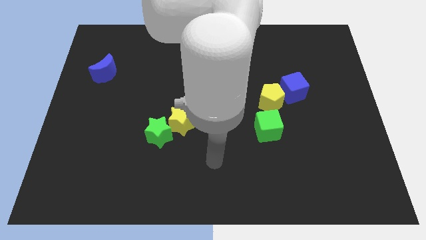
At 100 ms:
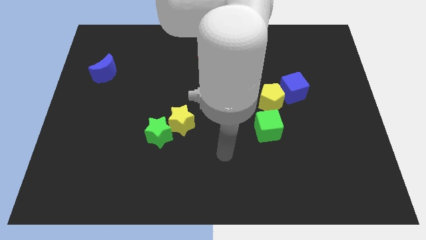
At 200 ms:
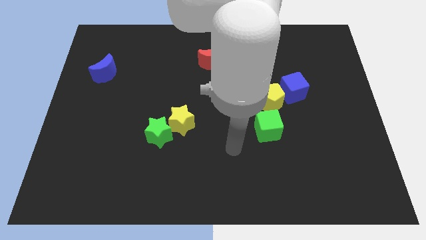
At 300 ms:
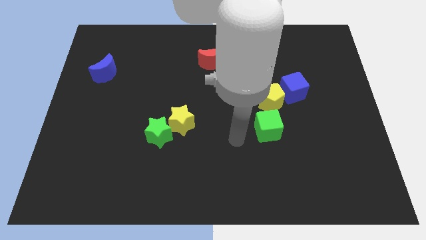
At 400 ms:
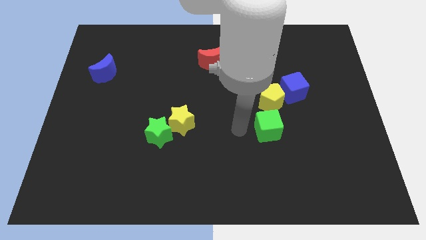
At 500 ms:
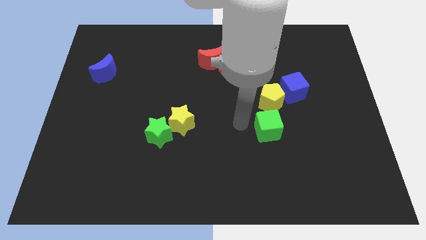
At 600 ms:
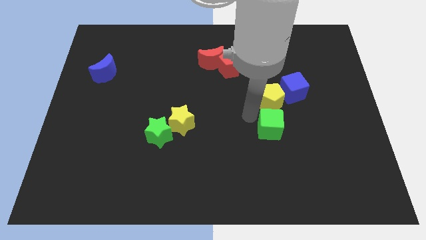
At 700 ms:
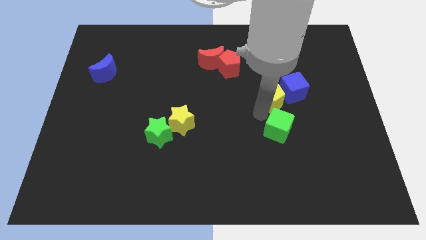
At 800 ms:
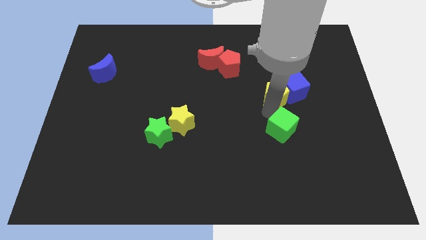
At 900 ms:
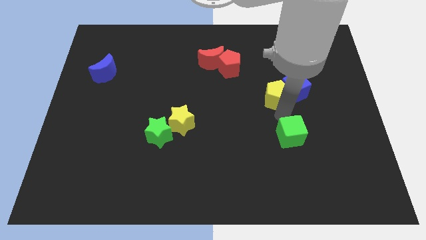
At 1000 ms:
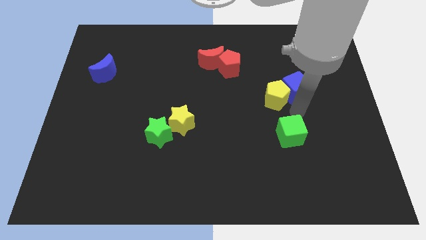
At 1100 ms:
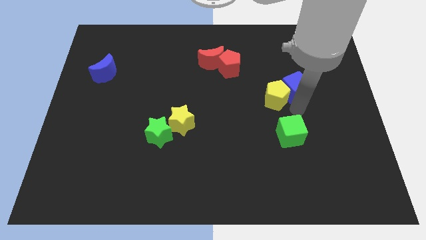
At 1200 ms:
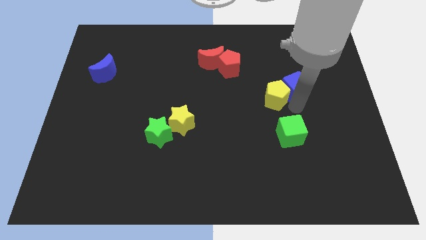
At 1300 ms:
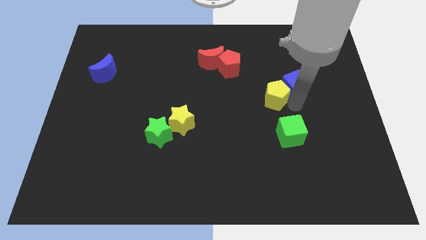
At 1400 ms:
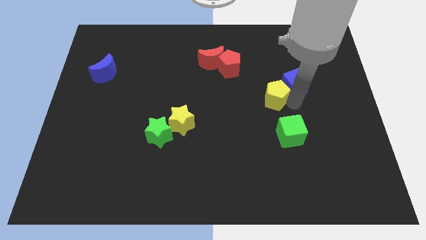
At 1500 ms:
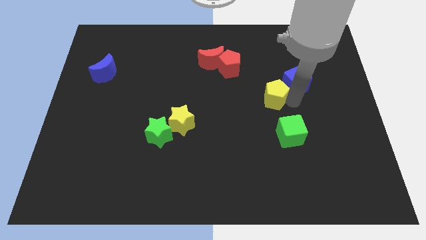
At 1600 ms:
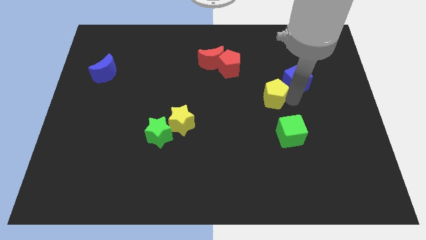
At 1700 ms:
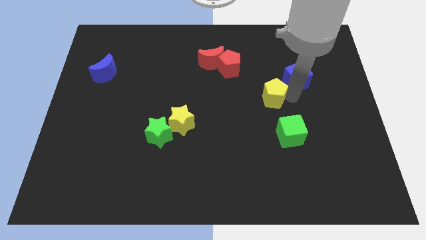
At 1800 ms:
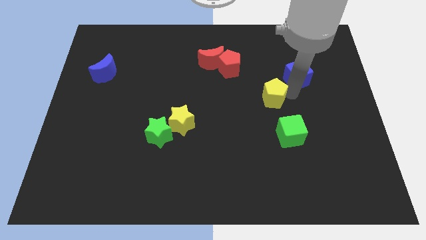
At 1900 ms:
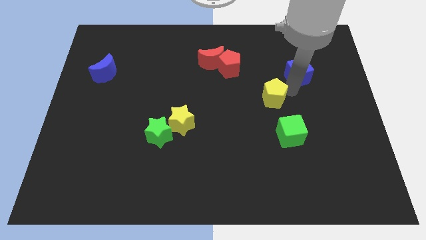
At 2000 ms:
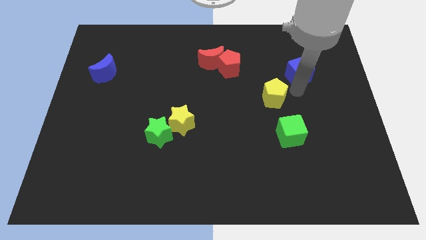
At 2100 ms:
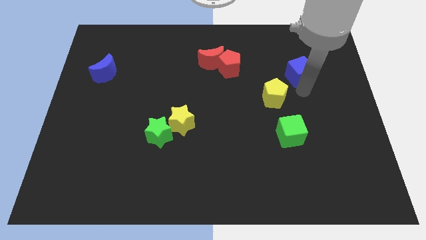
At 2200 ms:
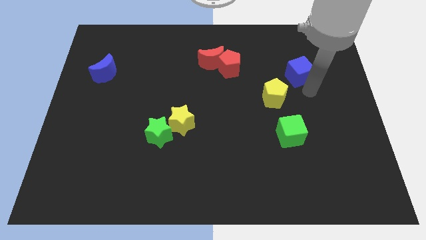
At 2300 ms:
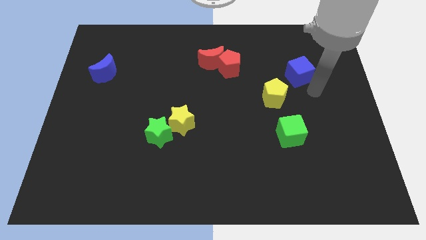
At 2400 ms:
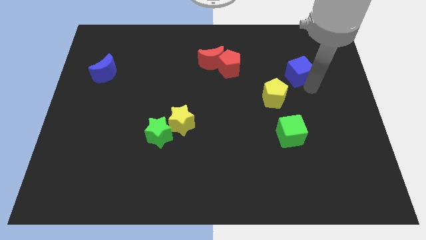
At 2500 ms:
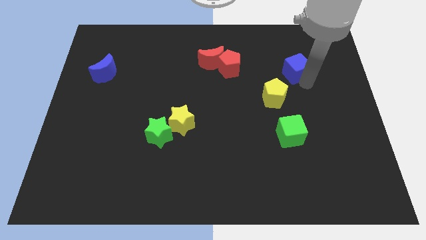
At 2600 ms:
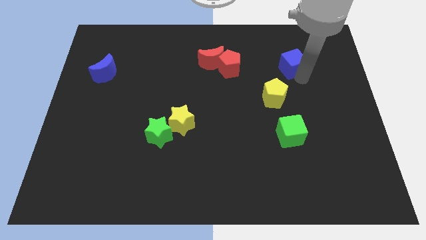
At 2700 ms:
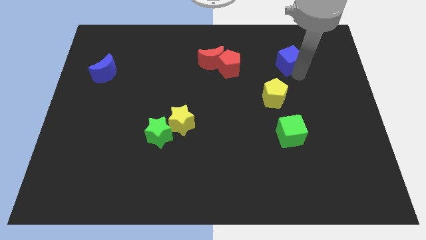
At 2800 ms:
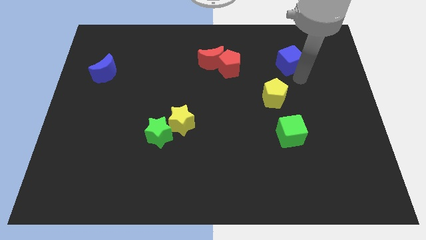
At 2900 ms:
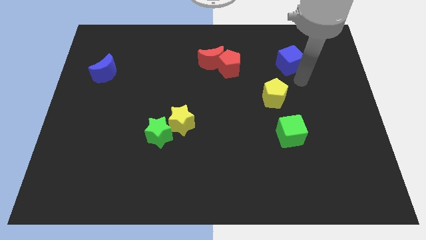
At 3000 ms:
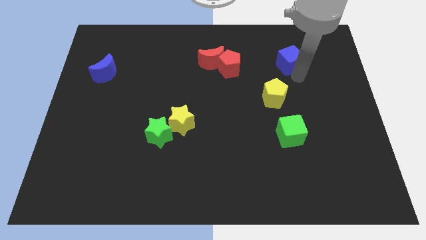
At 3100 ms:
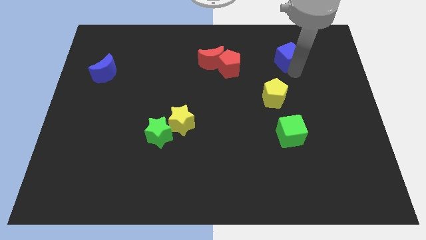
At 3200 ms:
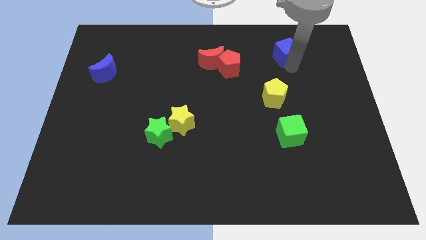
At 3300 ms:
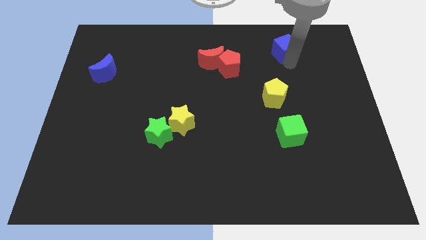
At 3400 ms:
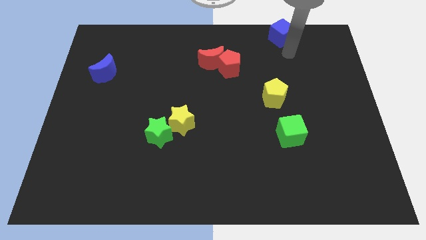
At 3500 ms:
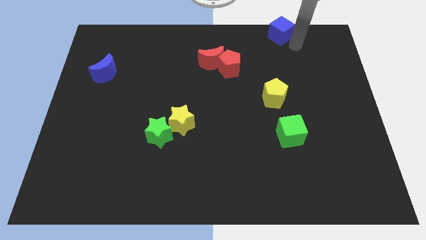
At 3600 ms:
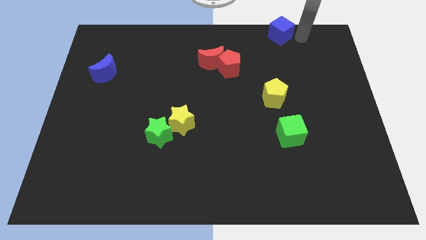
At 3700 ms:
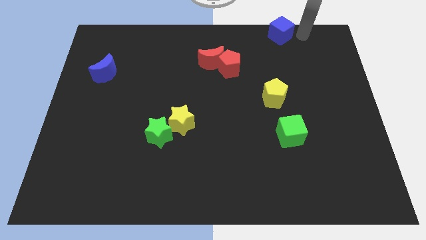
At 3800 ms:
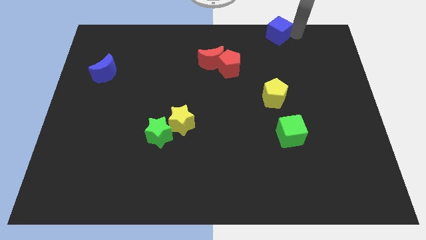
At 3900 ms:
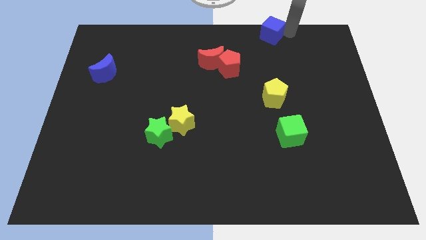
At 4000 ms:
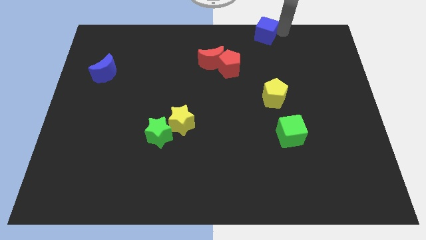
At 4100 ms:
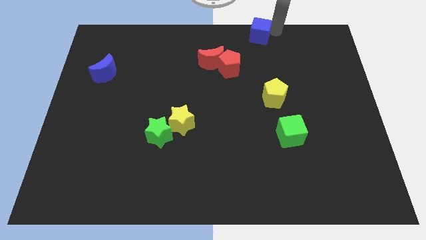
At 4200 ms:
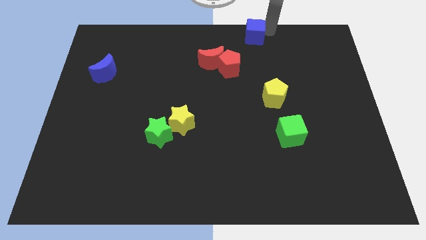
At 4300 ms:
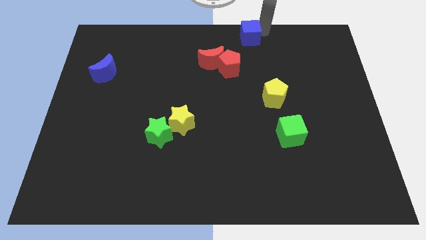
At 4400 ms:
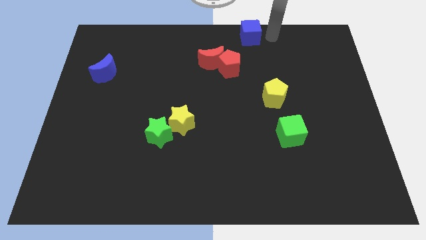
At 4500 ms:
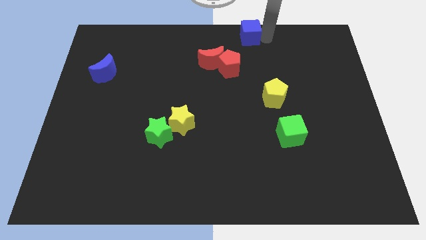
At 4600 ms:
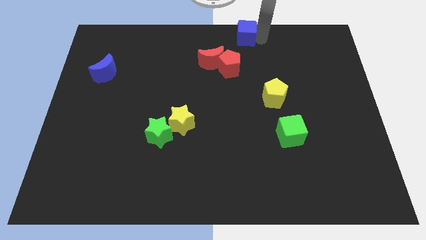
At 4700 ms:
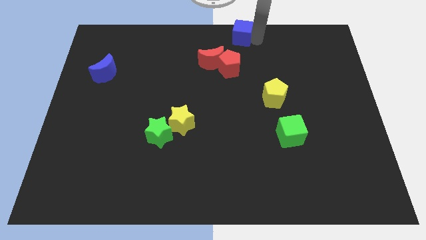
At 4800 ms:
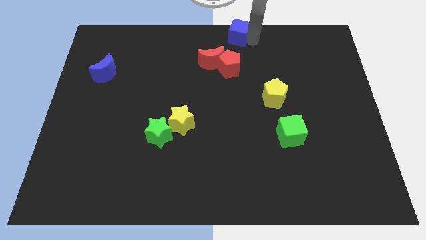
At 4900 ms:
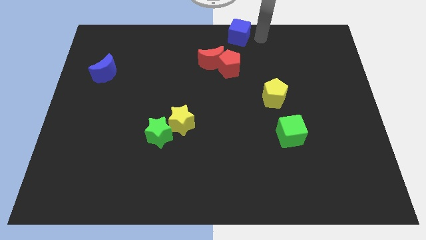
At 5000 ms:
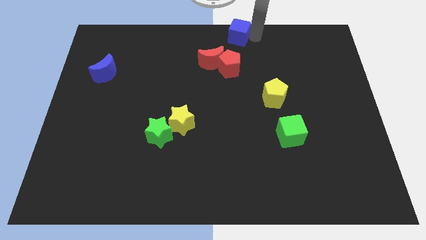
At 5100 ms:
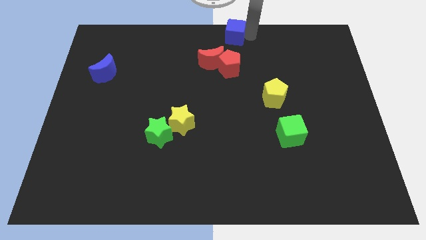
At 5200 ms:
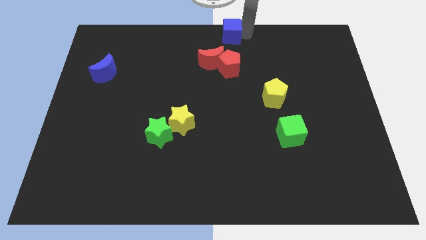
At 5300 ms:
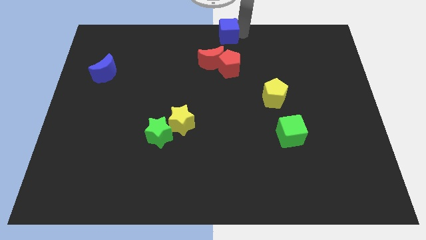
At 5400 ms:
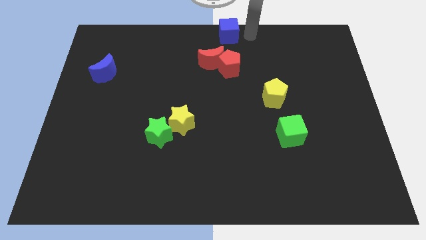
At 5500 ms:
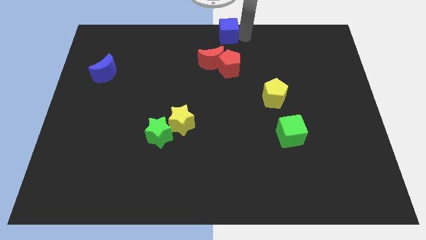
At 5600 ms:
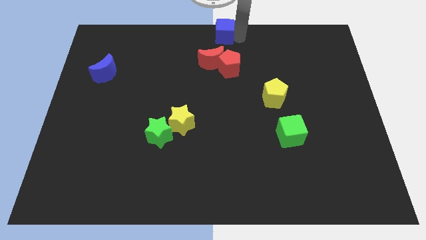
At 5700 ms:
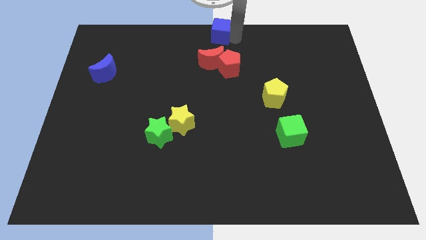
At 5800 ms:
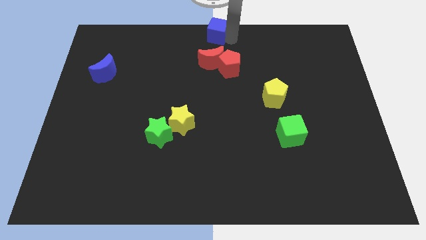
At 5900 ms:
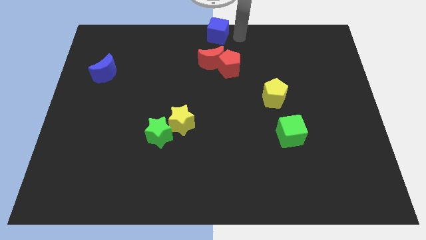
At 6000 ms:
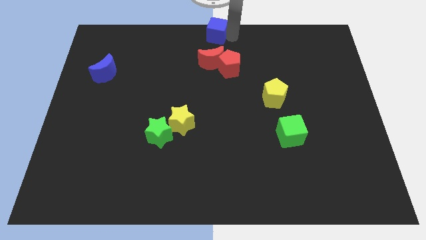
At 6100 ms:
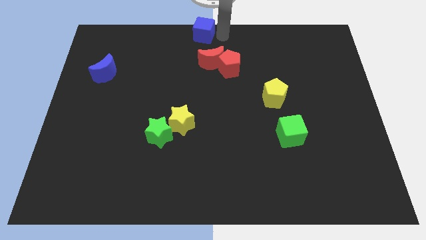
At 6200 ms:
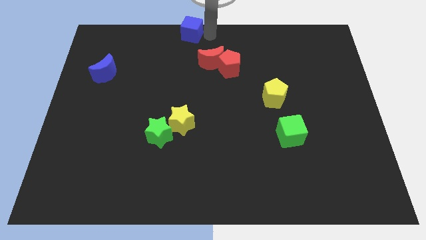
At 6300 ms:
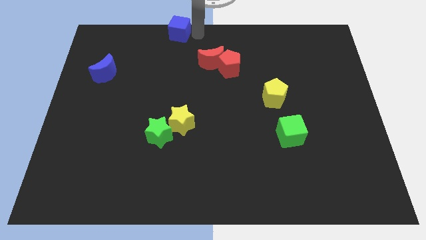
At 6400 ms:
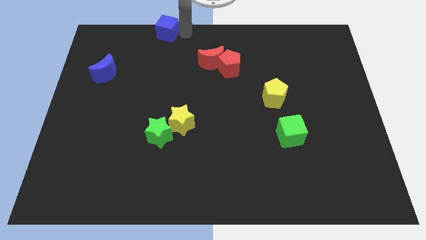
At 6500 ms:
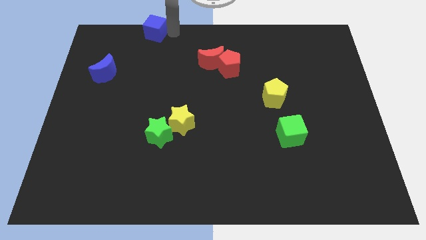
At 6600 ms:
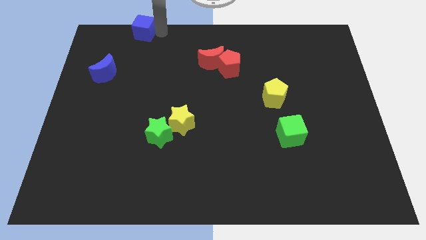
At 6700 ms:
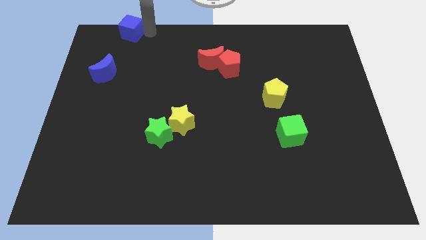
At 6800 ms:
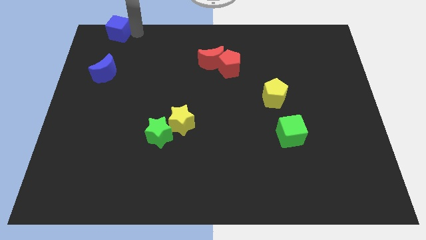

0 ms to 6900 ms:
push the blue cube to the upper left corner
